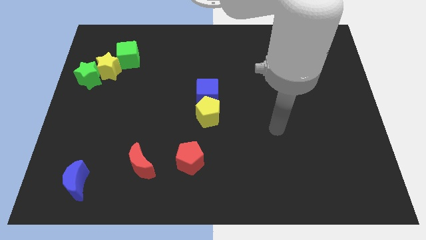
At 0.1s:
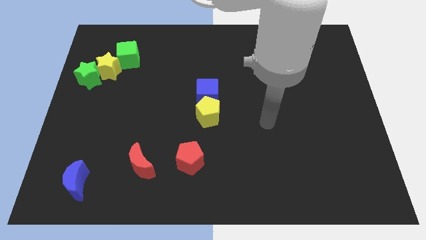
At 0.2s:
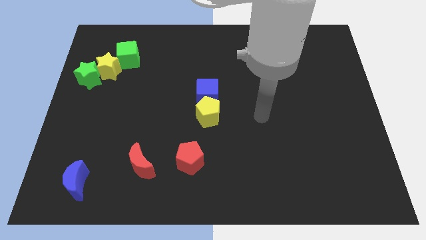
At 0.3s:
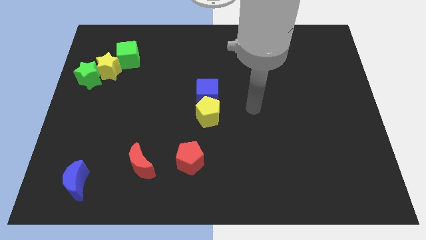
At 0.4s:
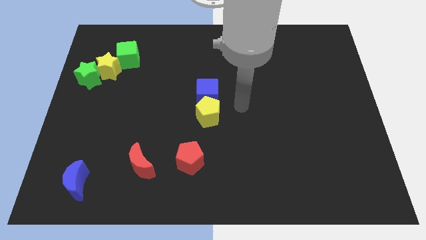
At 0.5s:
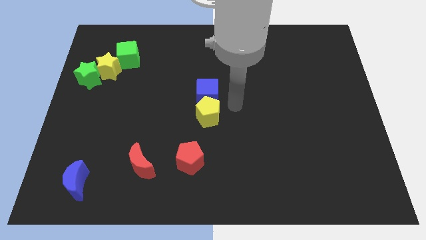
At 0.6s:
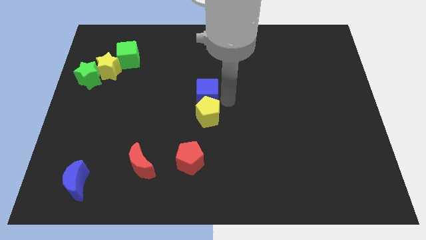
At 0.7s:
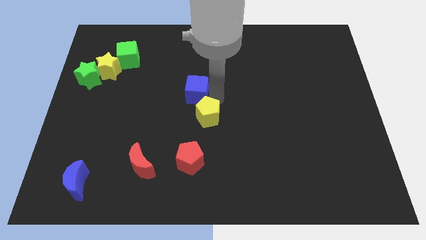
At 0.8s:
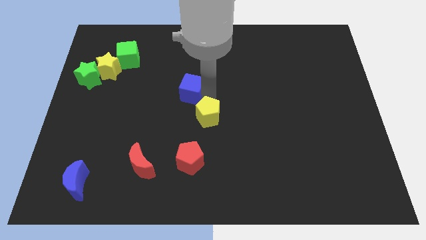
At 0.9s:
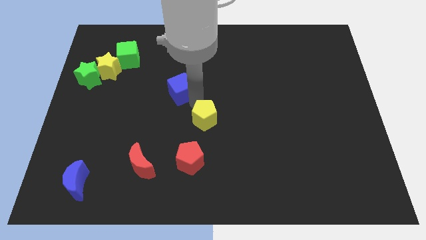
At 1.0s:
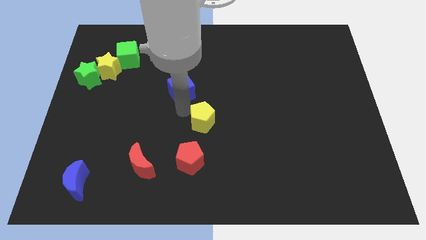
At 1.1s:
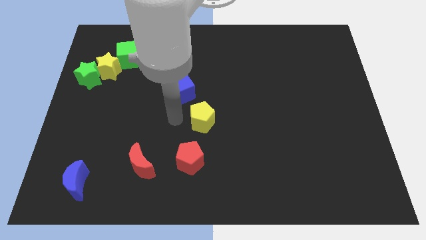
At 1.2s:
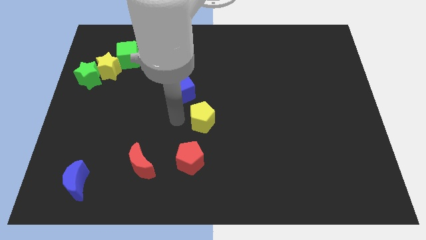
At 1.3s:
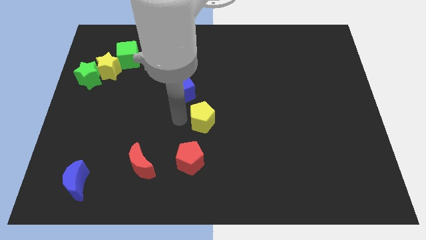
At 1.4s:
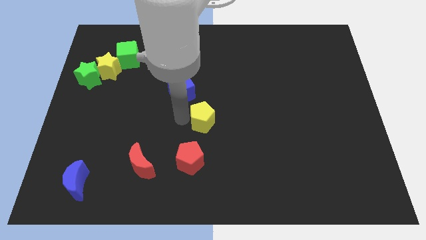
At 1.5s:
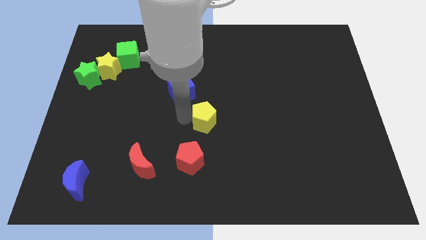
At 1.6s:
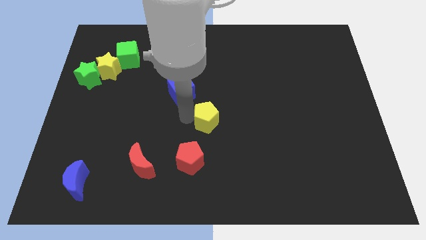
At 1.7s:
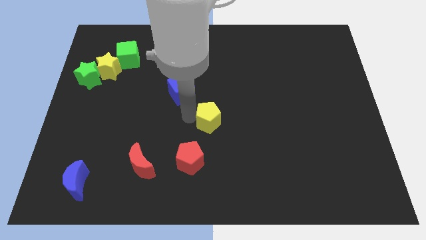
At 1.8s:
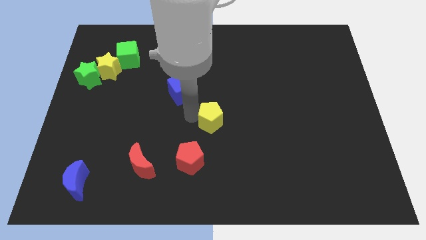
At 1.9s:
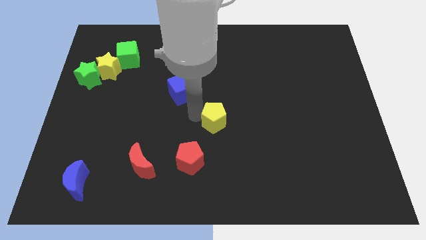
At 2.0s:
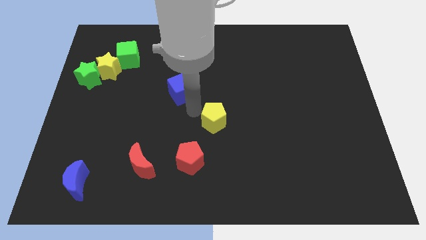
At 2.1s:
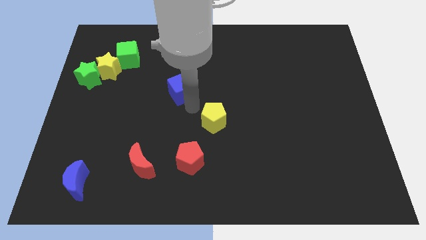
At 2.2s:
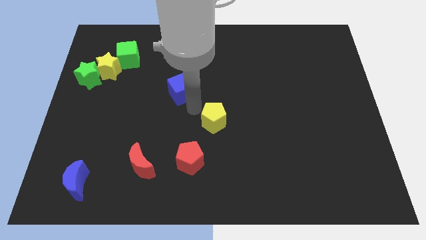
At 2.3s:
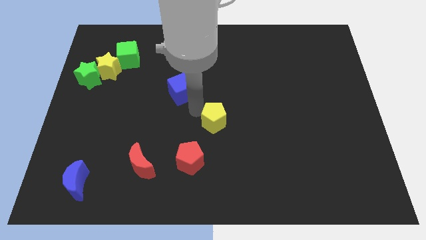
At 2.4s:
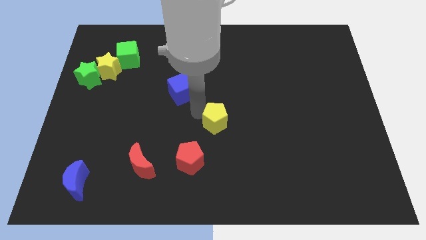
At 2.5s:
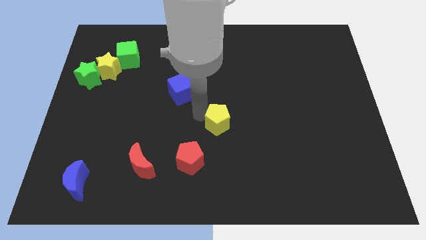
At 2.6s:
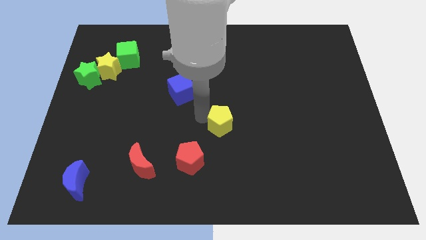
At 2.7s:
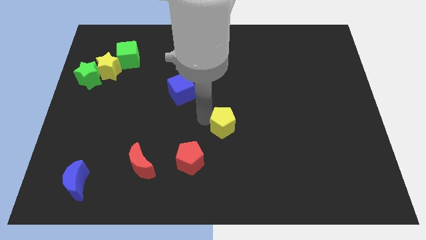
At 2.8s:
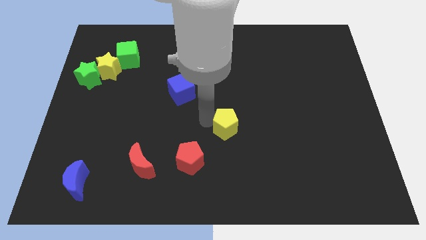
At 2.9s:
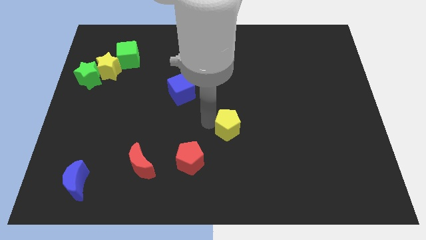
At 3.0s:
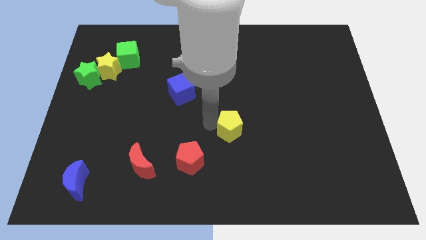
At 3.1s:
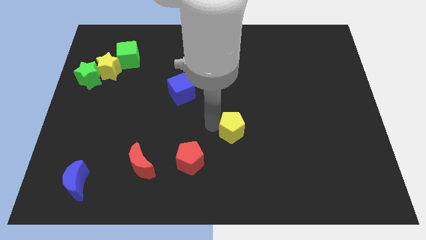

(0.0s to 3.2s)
push the yellow pentagon downwards and right a bit

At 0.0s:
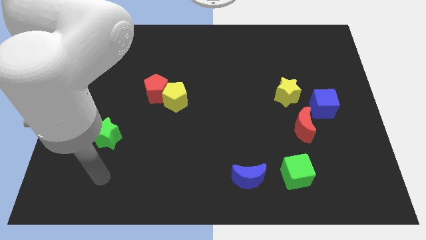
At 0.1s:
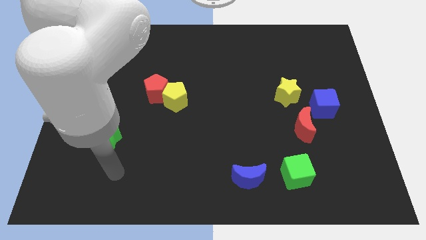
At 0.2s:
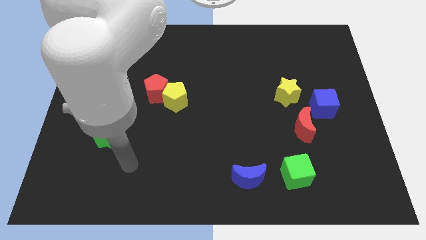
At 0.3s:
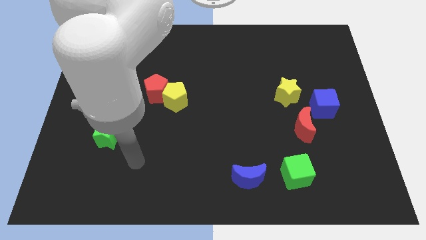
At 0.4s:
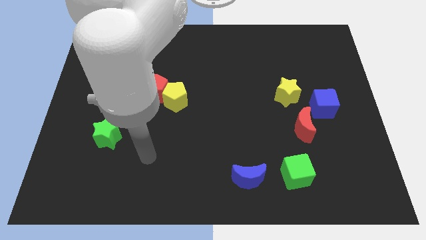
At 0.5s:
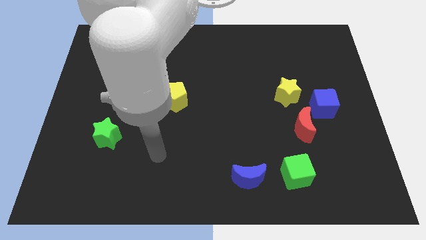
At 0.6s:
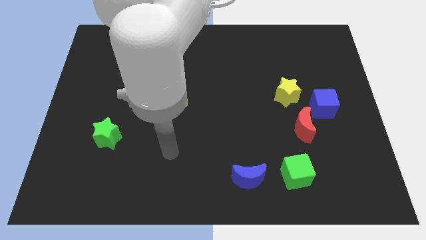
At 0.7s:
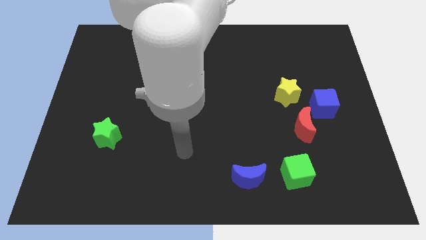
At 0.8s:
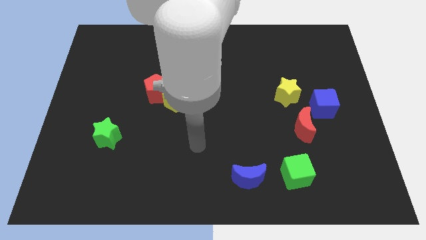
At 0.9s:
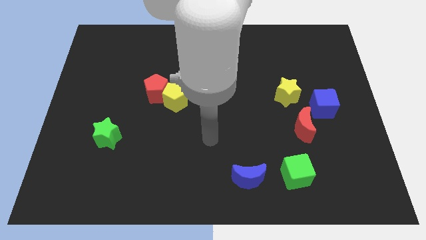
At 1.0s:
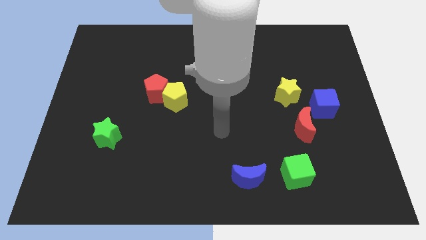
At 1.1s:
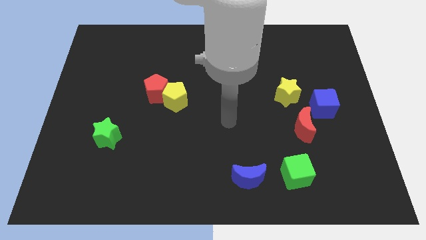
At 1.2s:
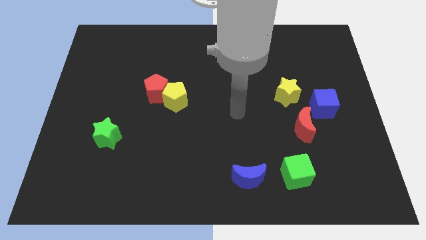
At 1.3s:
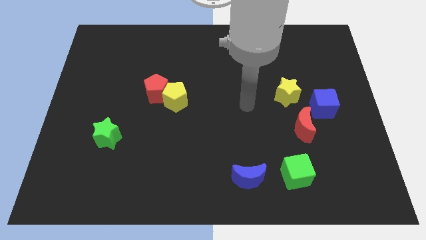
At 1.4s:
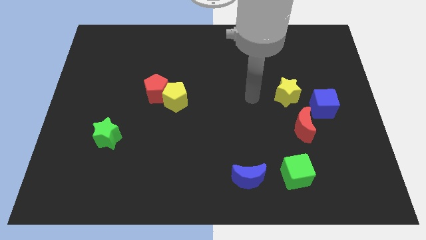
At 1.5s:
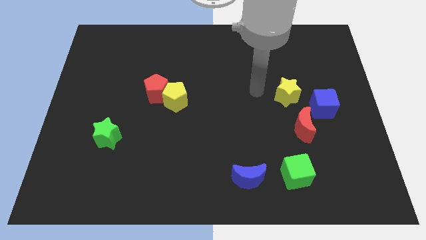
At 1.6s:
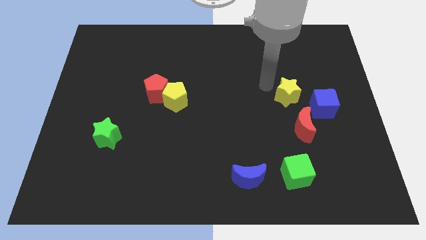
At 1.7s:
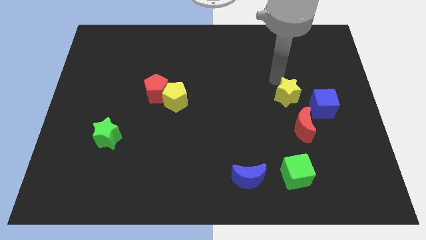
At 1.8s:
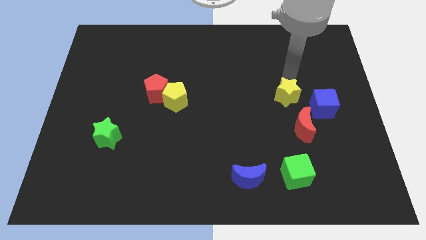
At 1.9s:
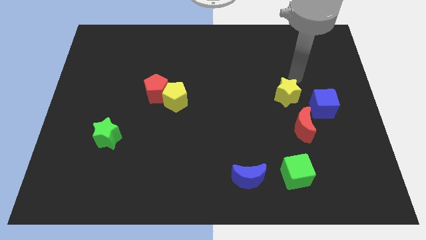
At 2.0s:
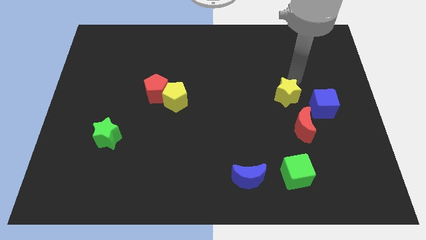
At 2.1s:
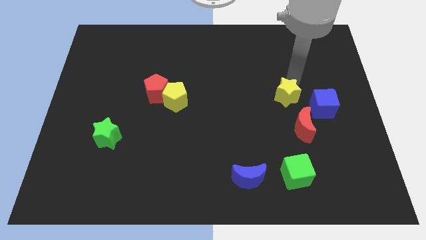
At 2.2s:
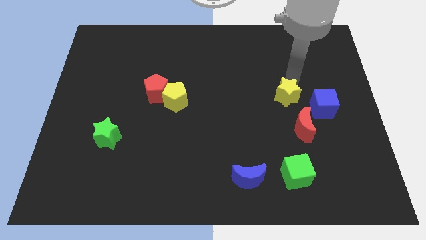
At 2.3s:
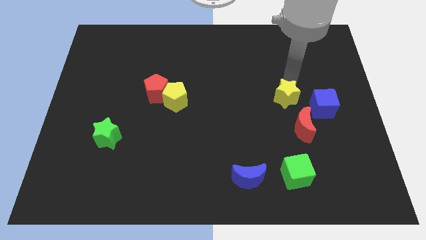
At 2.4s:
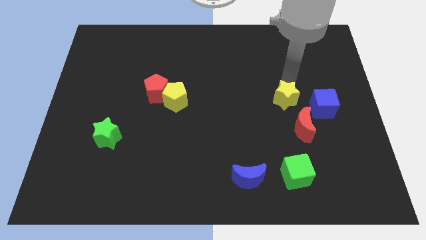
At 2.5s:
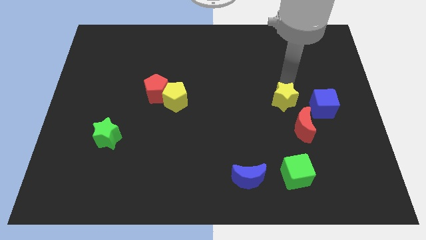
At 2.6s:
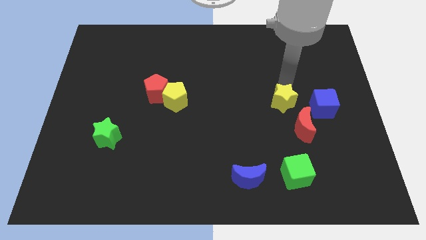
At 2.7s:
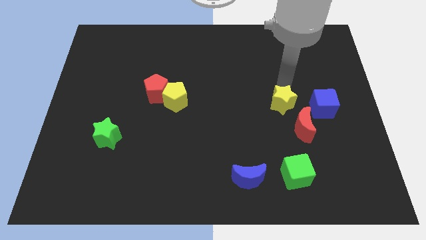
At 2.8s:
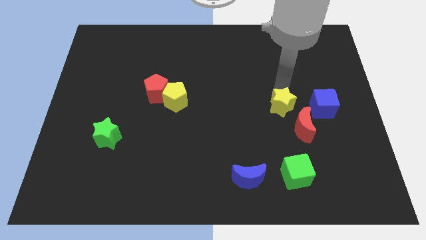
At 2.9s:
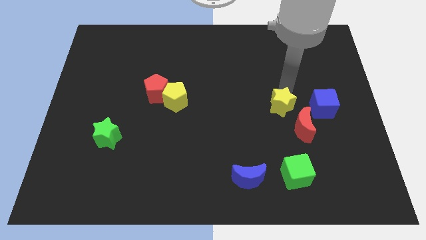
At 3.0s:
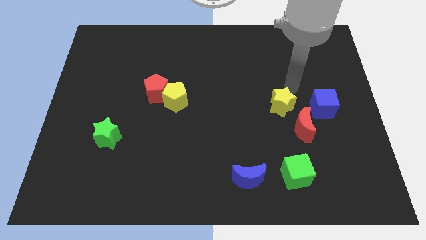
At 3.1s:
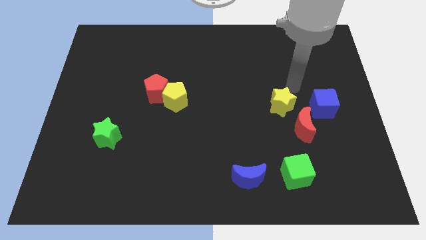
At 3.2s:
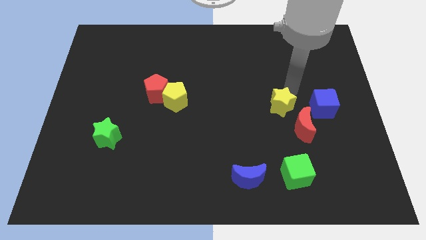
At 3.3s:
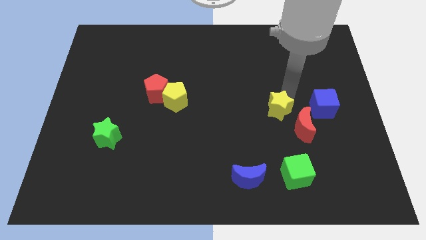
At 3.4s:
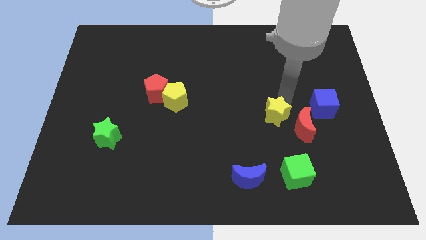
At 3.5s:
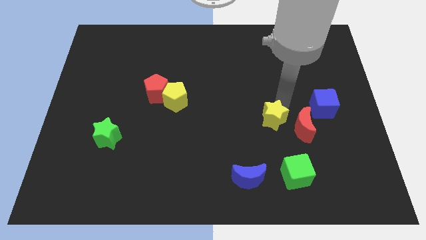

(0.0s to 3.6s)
push the yellow star down and left diagonally somewhat

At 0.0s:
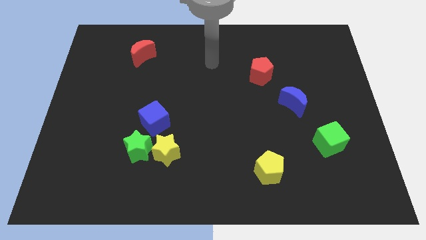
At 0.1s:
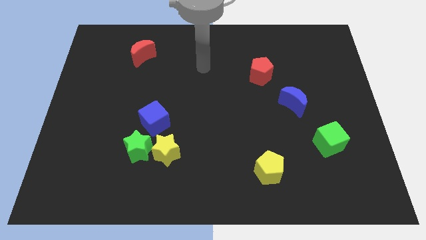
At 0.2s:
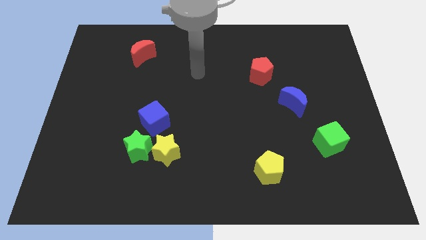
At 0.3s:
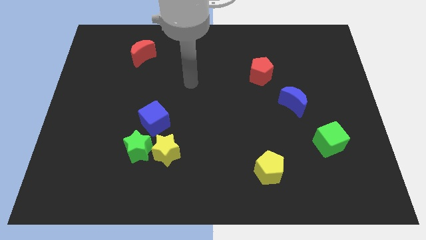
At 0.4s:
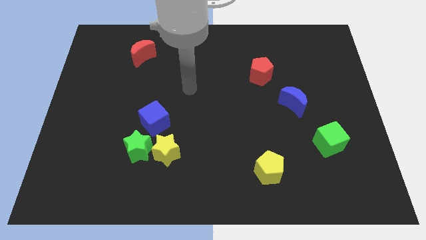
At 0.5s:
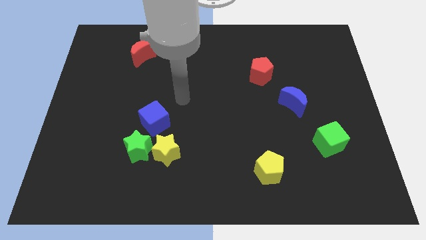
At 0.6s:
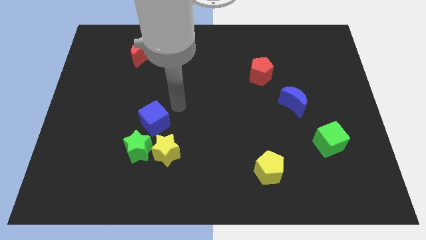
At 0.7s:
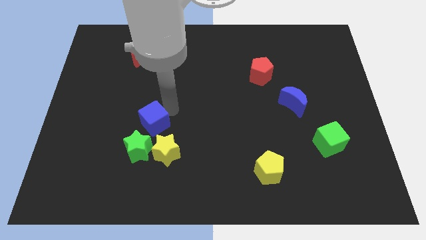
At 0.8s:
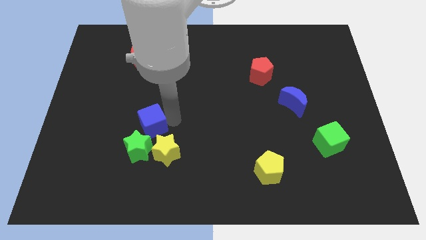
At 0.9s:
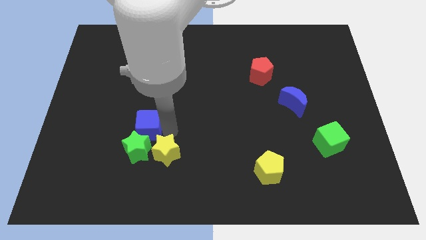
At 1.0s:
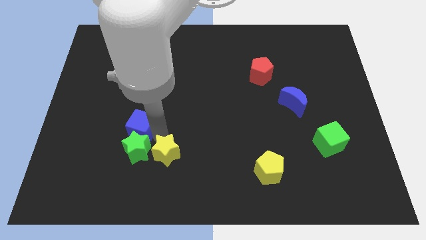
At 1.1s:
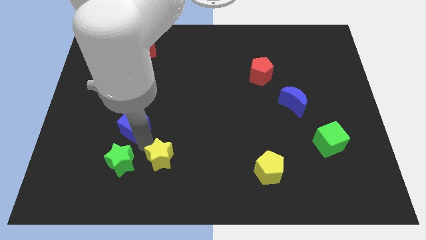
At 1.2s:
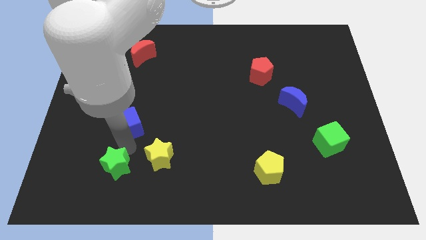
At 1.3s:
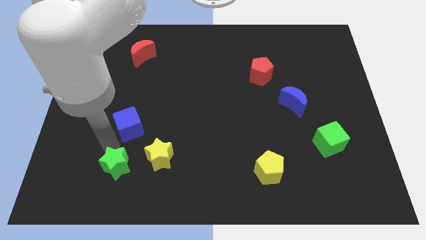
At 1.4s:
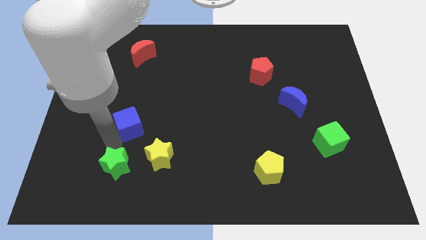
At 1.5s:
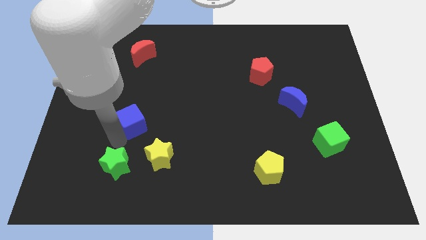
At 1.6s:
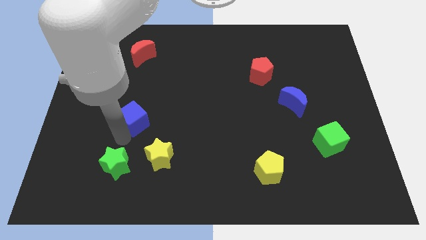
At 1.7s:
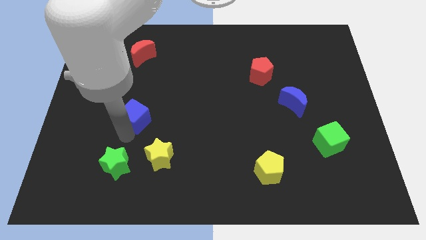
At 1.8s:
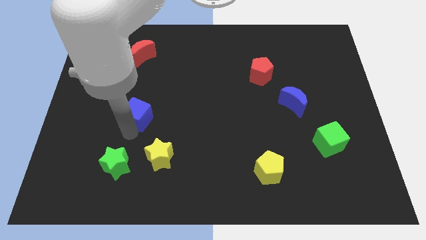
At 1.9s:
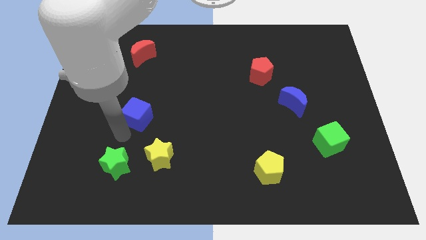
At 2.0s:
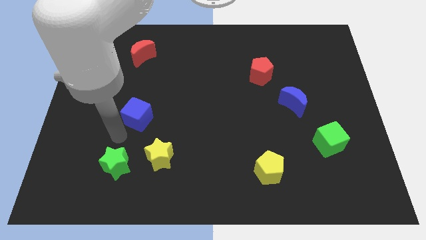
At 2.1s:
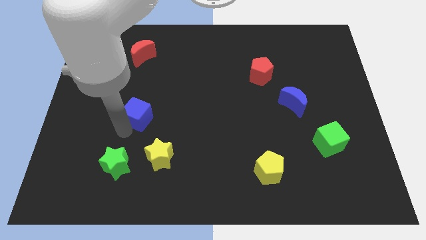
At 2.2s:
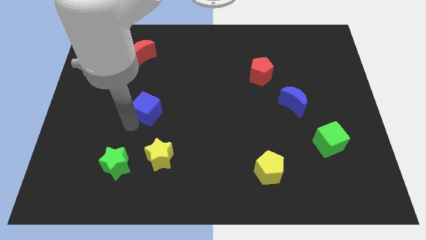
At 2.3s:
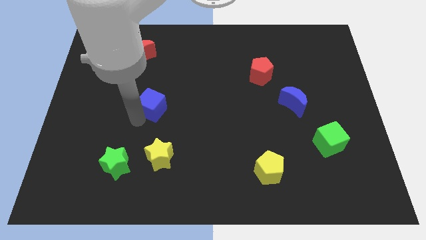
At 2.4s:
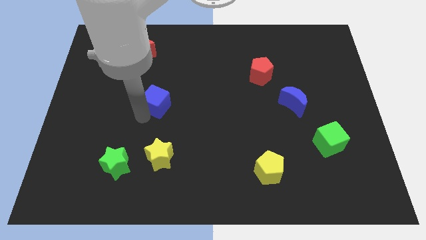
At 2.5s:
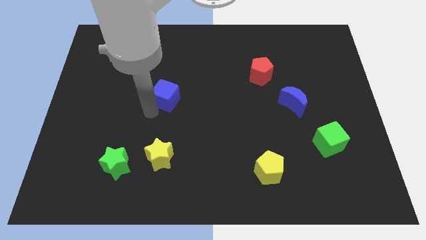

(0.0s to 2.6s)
move the blue cube a little bit up
